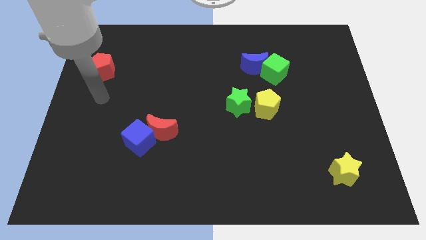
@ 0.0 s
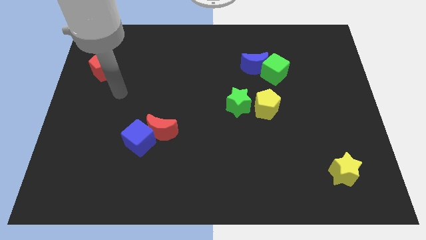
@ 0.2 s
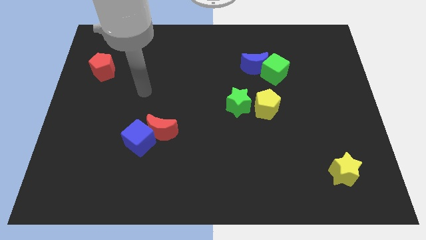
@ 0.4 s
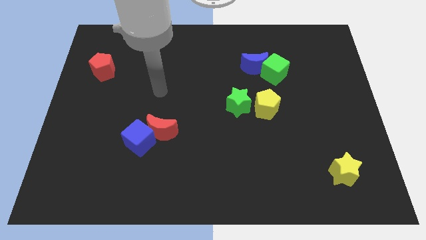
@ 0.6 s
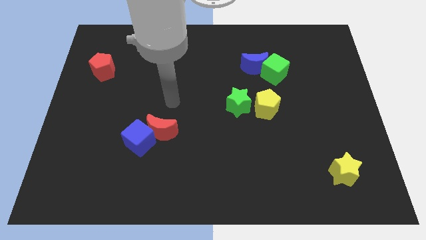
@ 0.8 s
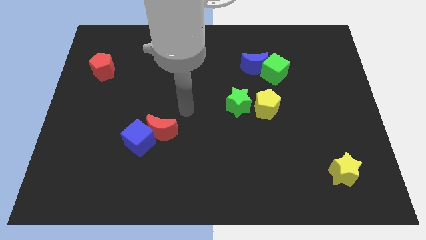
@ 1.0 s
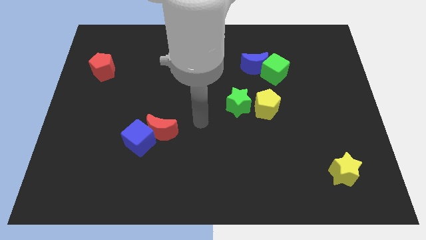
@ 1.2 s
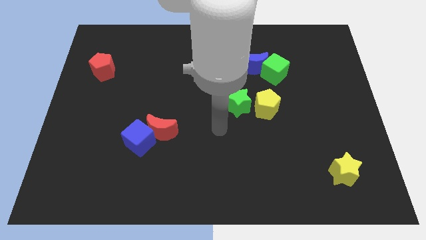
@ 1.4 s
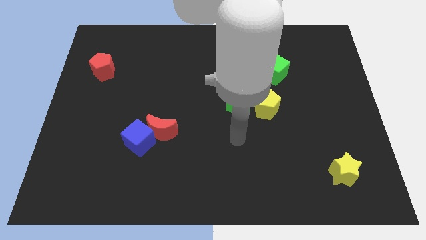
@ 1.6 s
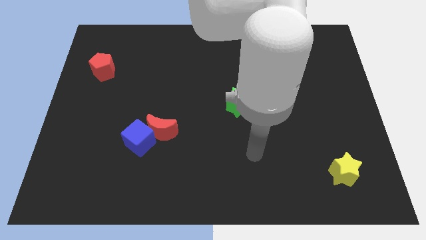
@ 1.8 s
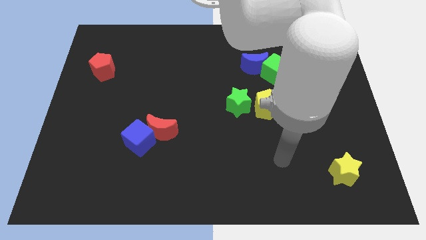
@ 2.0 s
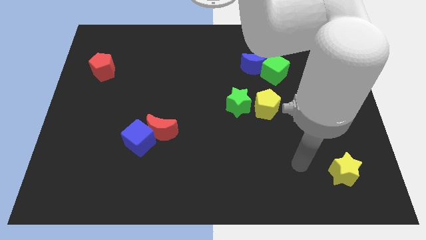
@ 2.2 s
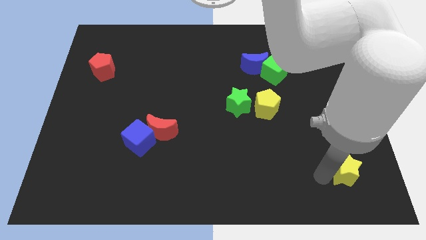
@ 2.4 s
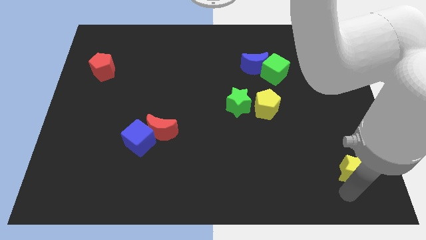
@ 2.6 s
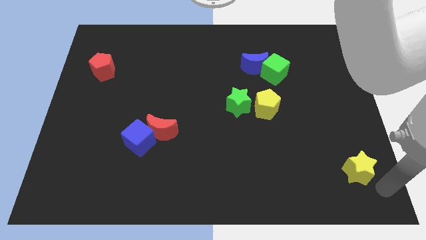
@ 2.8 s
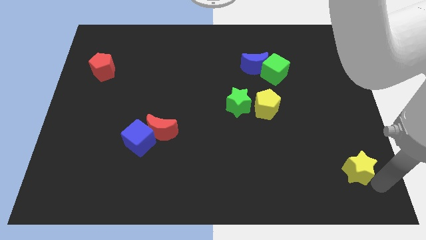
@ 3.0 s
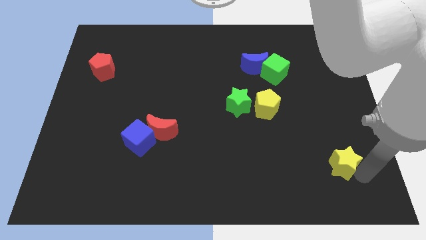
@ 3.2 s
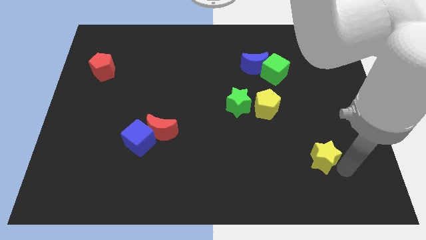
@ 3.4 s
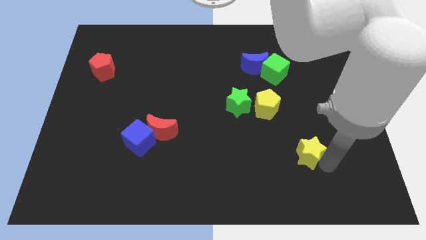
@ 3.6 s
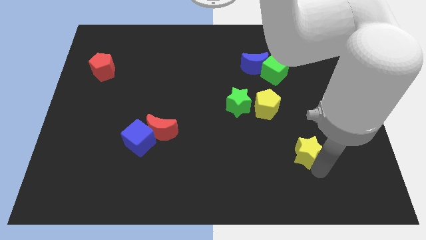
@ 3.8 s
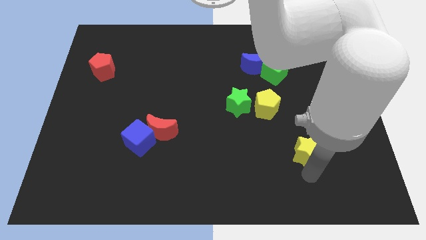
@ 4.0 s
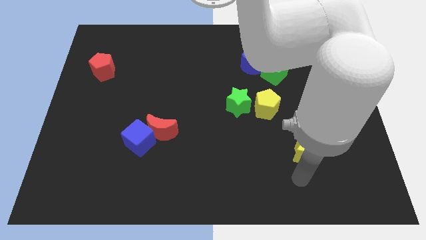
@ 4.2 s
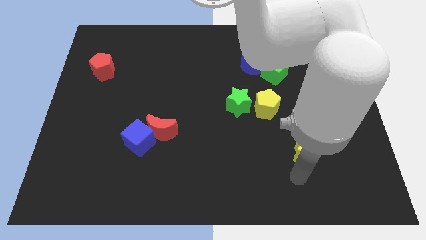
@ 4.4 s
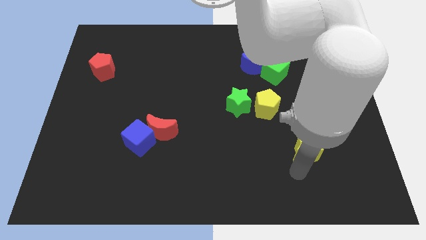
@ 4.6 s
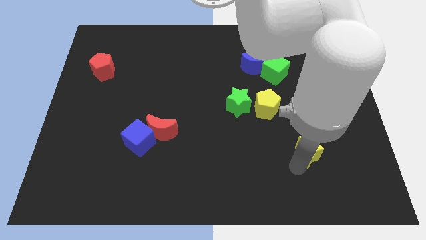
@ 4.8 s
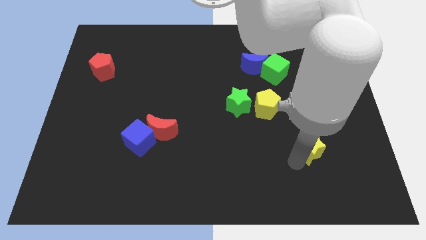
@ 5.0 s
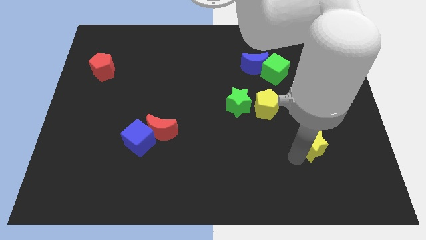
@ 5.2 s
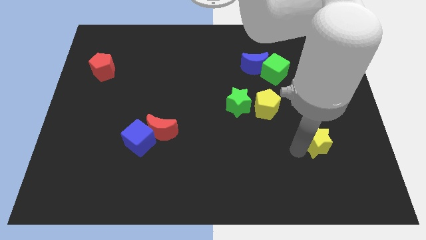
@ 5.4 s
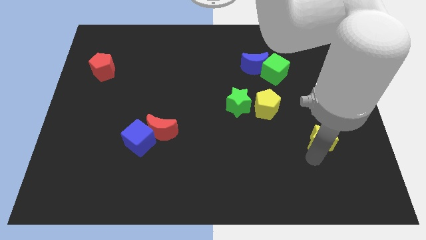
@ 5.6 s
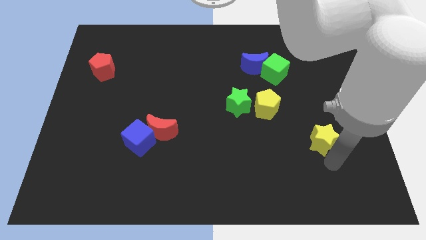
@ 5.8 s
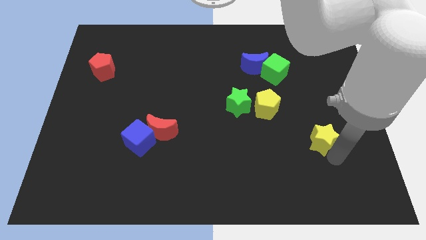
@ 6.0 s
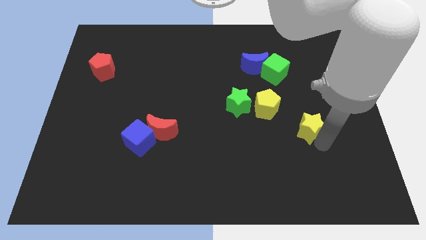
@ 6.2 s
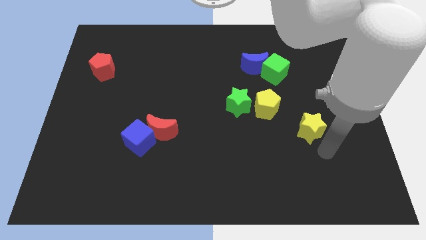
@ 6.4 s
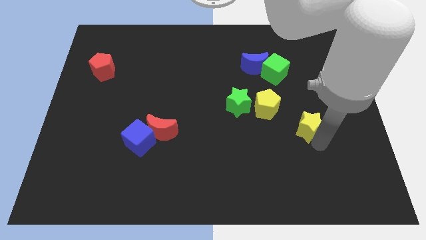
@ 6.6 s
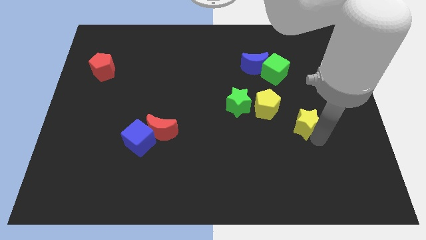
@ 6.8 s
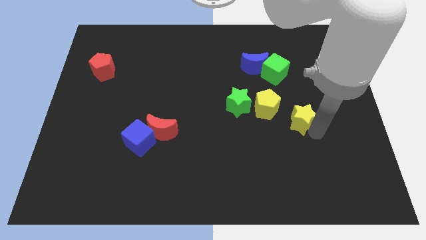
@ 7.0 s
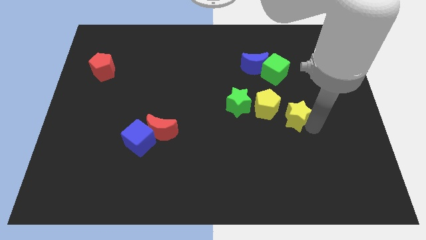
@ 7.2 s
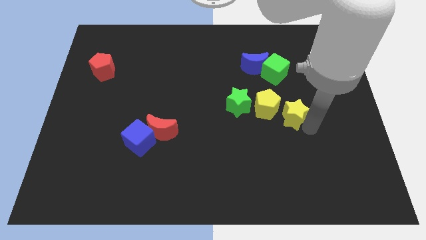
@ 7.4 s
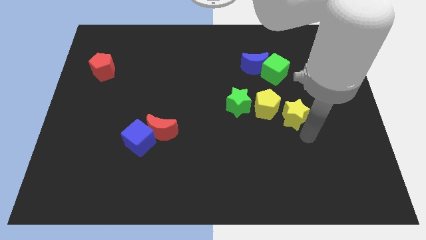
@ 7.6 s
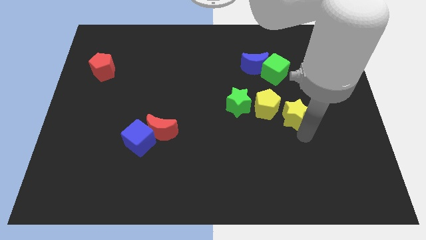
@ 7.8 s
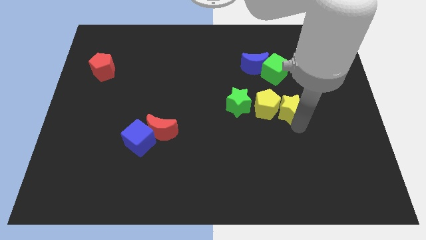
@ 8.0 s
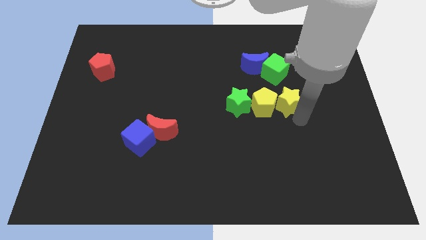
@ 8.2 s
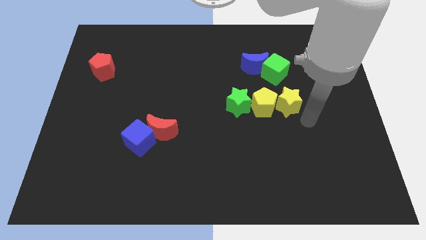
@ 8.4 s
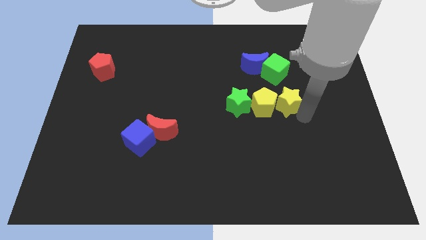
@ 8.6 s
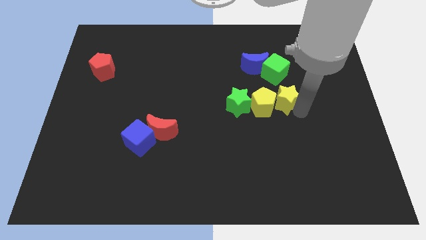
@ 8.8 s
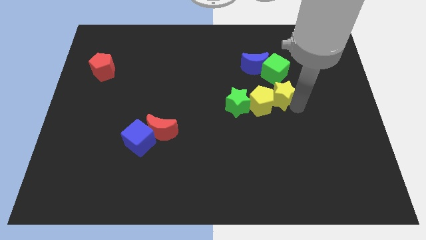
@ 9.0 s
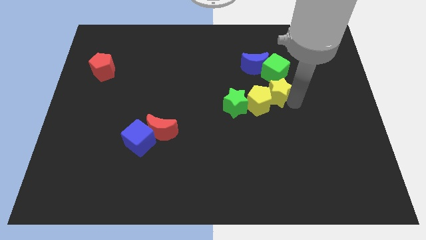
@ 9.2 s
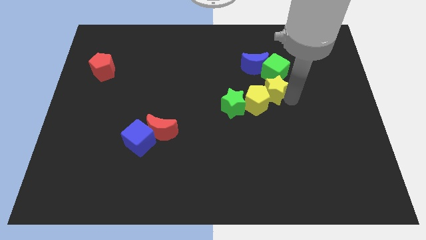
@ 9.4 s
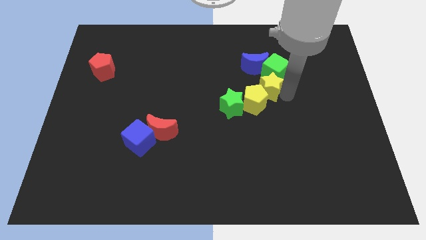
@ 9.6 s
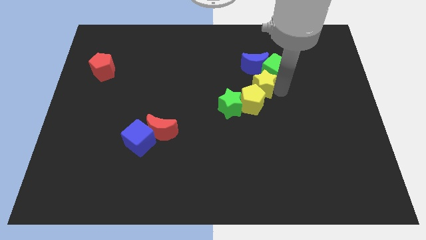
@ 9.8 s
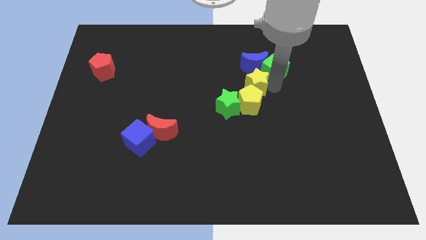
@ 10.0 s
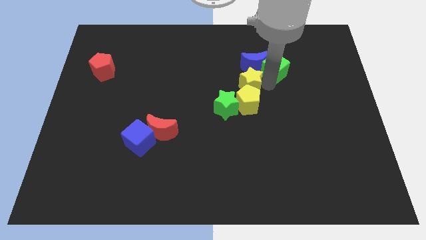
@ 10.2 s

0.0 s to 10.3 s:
slide the yellow star diagonally up and to the left of the yellow pentagon

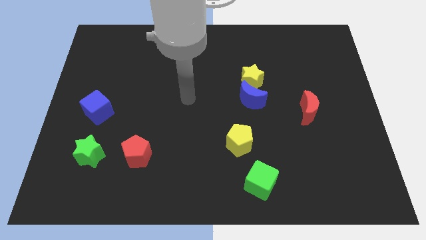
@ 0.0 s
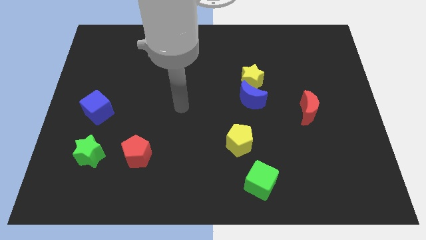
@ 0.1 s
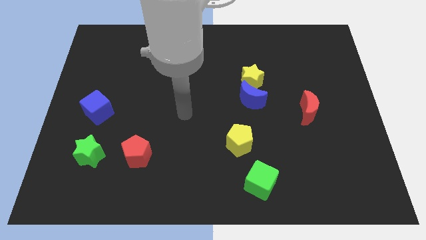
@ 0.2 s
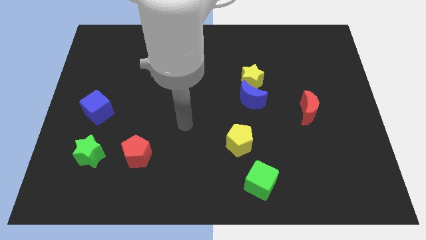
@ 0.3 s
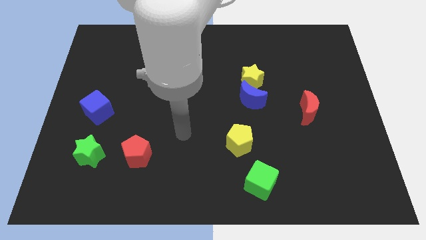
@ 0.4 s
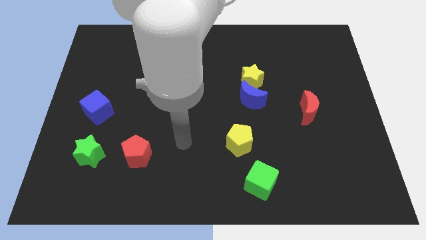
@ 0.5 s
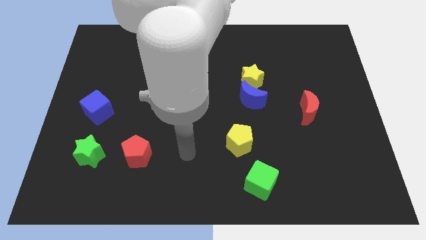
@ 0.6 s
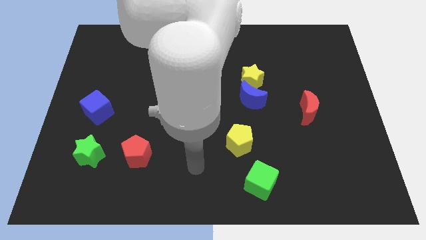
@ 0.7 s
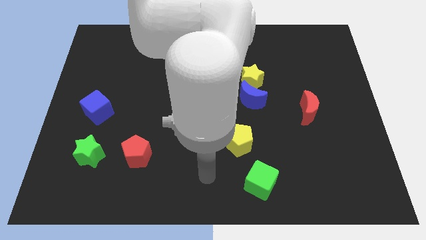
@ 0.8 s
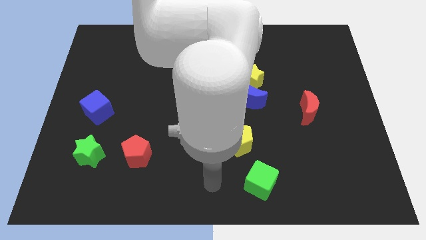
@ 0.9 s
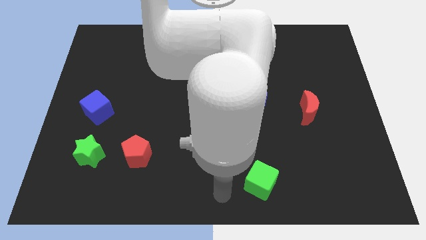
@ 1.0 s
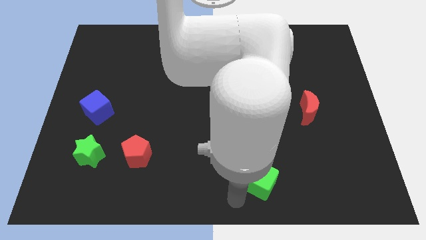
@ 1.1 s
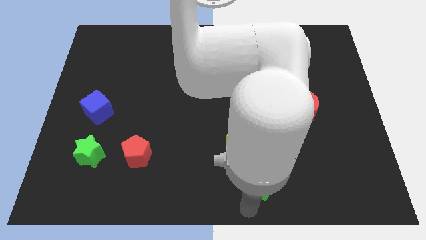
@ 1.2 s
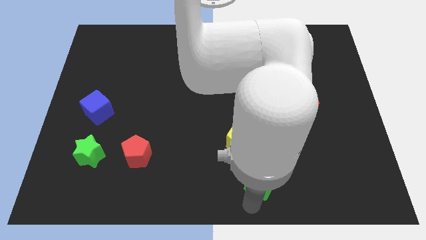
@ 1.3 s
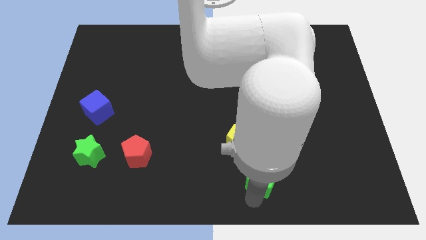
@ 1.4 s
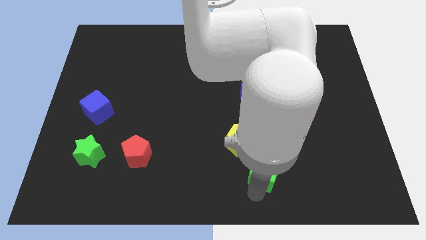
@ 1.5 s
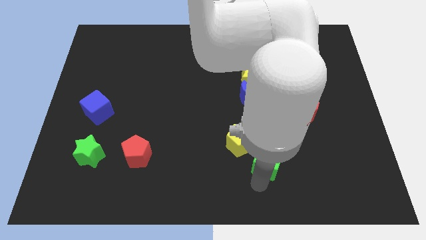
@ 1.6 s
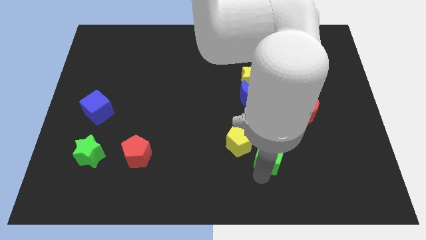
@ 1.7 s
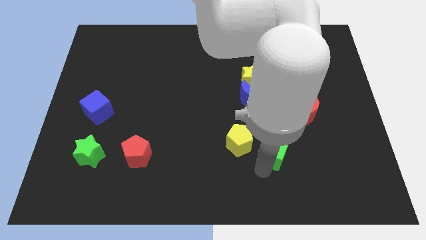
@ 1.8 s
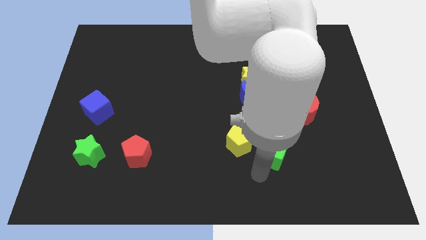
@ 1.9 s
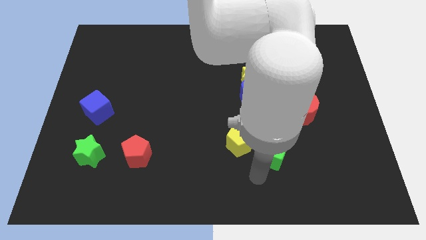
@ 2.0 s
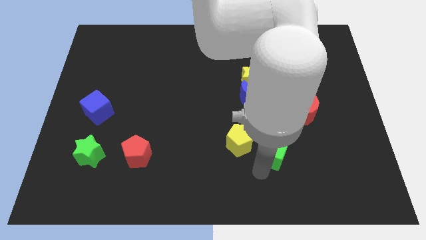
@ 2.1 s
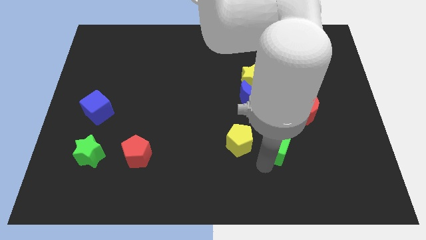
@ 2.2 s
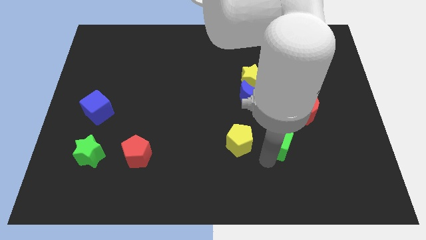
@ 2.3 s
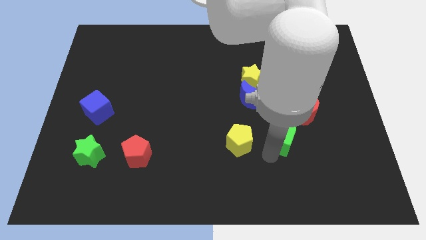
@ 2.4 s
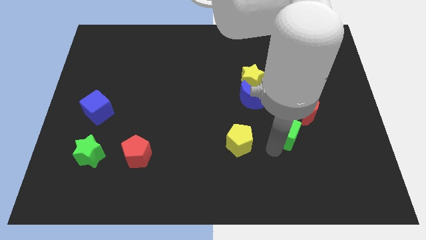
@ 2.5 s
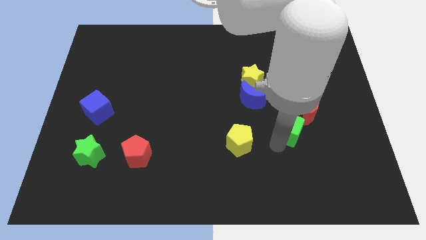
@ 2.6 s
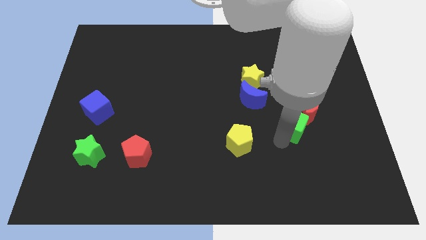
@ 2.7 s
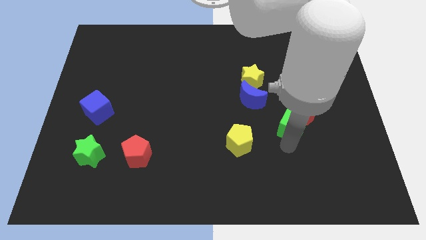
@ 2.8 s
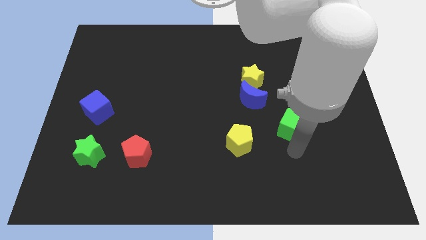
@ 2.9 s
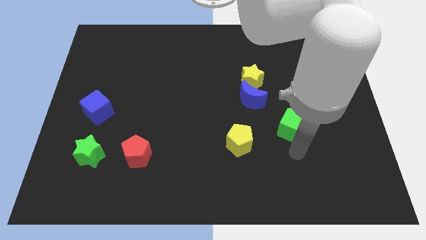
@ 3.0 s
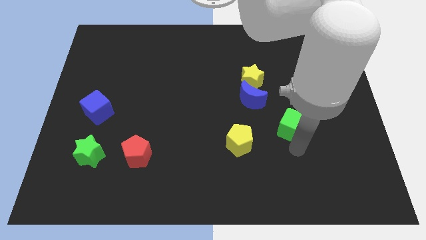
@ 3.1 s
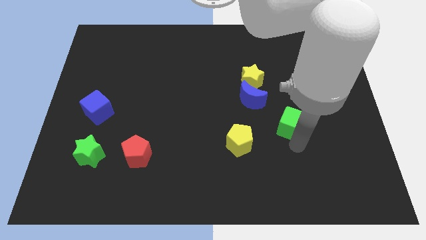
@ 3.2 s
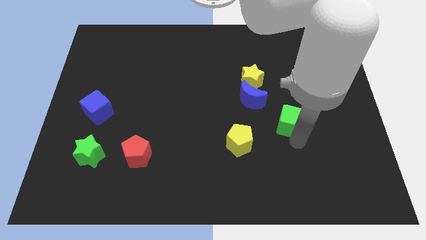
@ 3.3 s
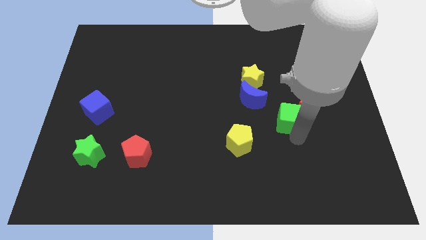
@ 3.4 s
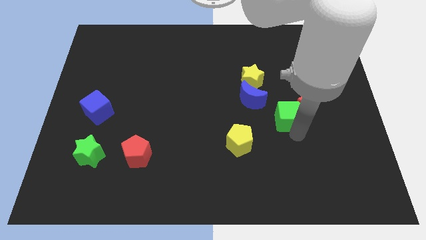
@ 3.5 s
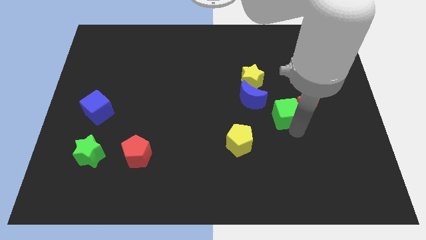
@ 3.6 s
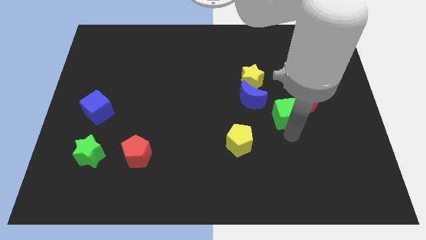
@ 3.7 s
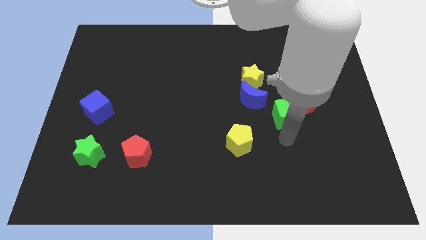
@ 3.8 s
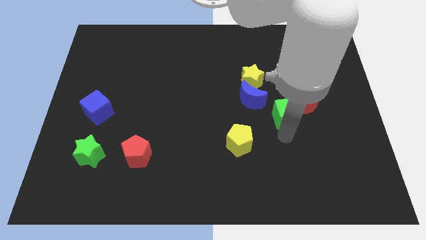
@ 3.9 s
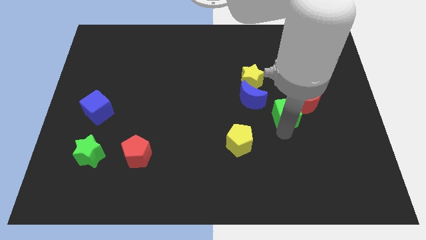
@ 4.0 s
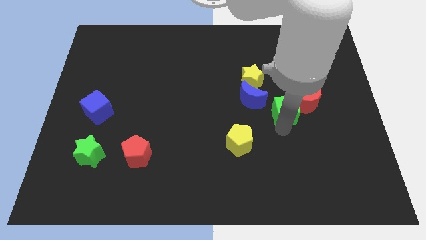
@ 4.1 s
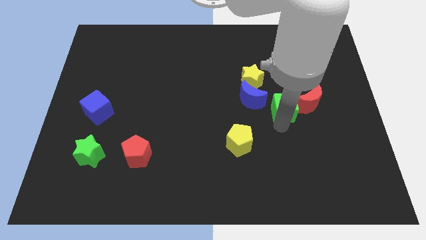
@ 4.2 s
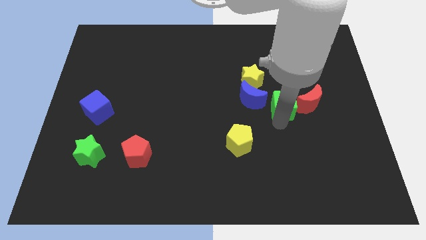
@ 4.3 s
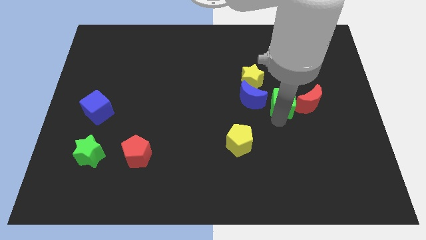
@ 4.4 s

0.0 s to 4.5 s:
slide the green cube to the top left side of the red moon
